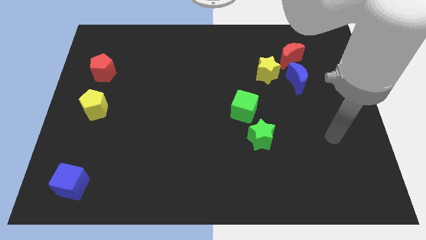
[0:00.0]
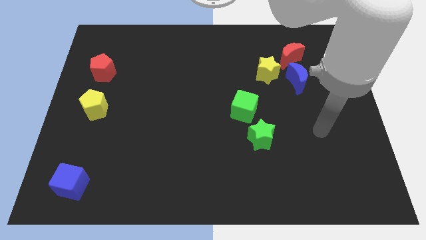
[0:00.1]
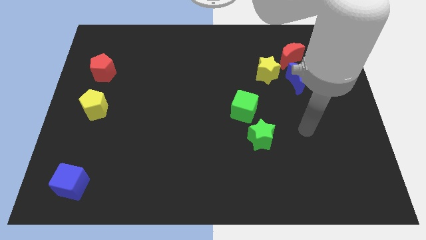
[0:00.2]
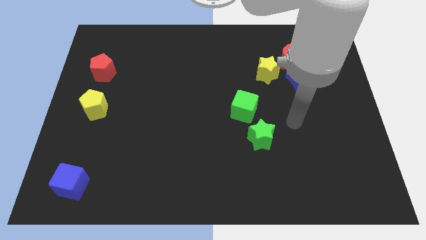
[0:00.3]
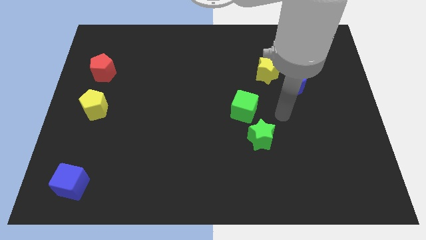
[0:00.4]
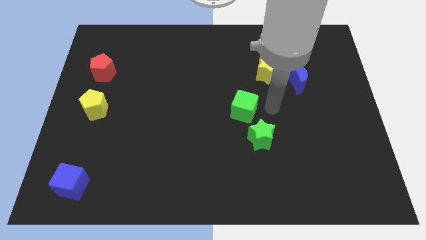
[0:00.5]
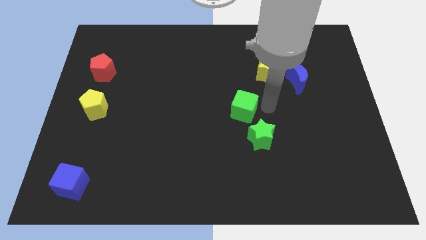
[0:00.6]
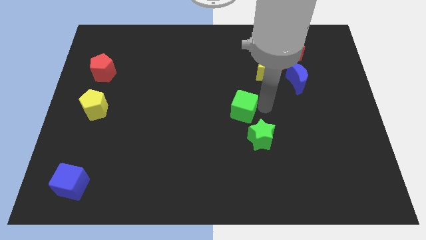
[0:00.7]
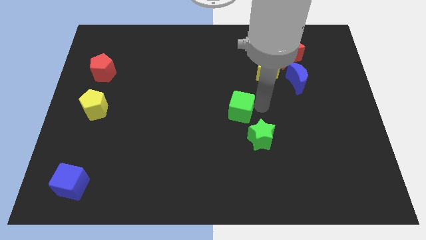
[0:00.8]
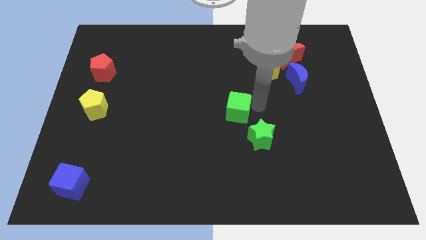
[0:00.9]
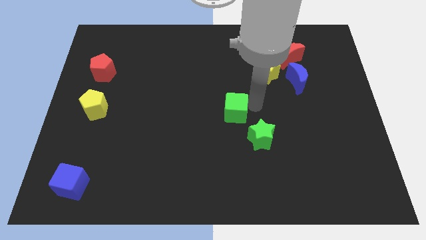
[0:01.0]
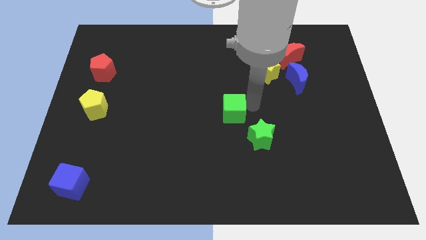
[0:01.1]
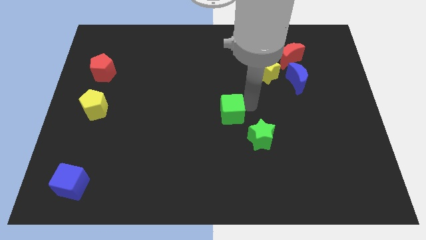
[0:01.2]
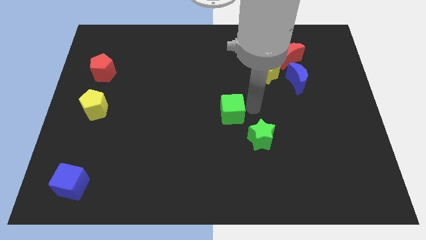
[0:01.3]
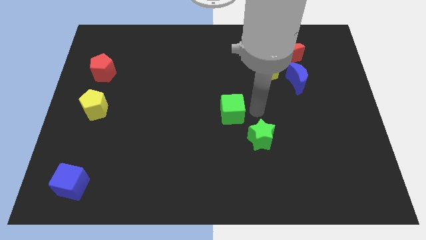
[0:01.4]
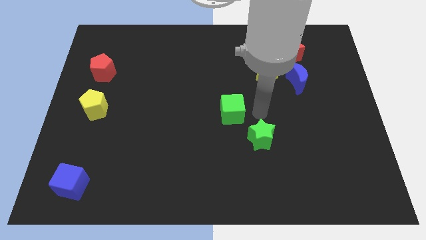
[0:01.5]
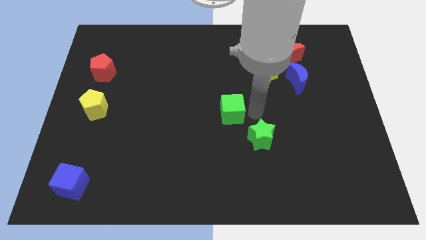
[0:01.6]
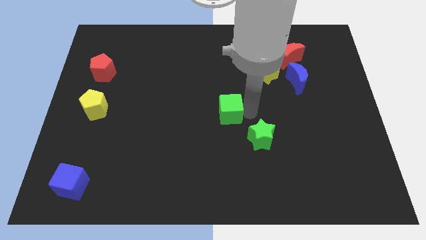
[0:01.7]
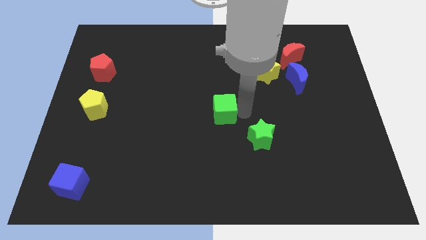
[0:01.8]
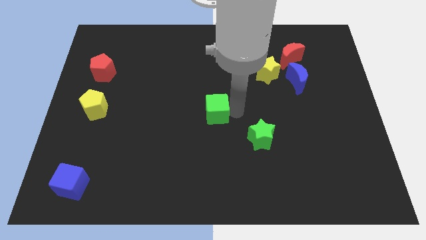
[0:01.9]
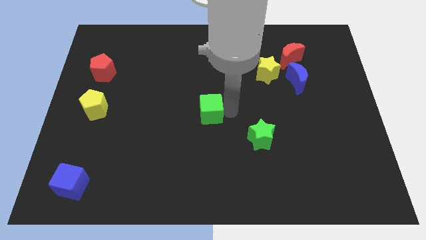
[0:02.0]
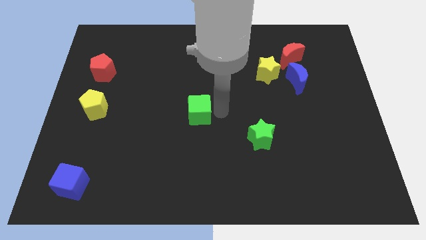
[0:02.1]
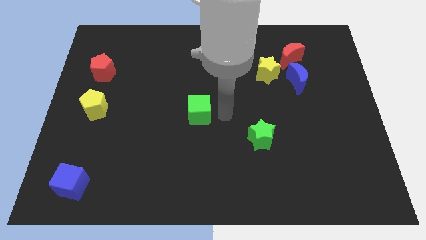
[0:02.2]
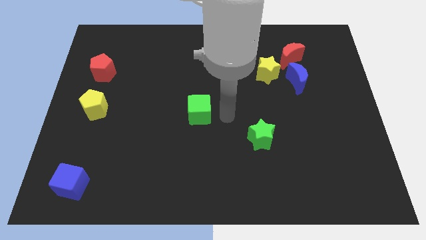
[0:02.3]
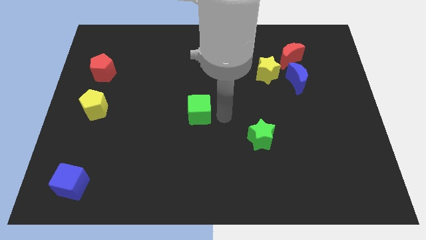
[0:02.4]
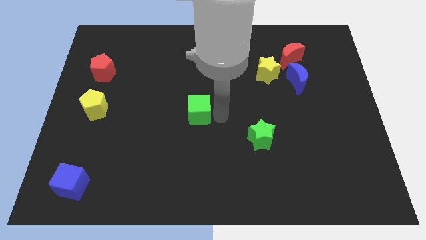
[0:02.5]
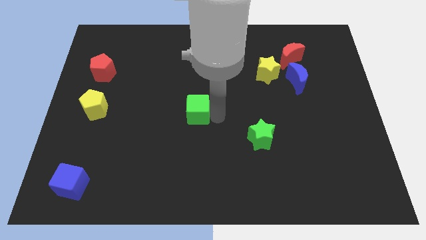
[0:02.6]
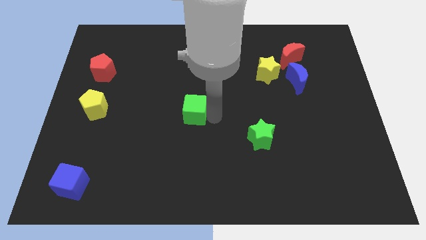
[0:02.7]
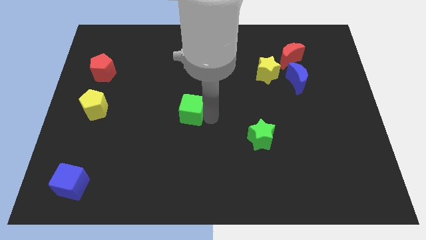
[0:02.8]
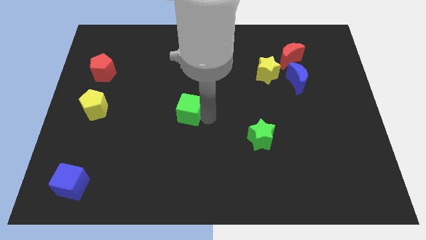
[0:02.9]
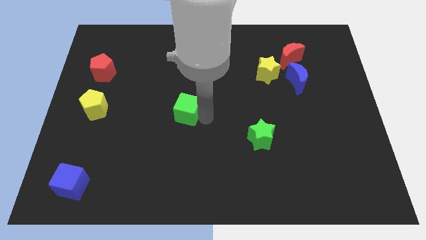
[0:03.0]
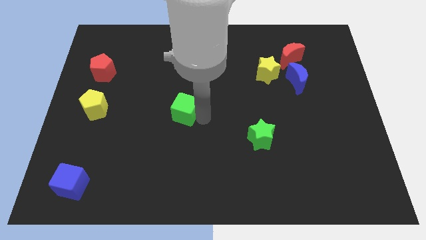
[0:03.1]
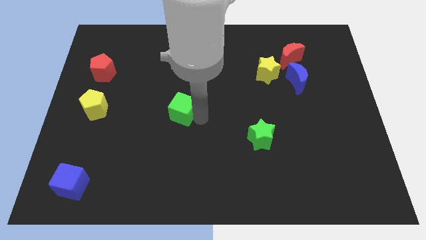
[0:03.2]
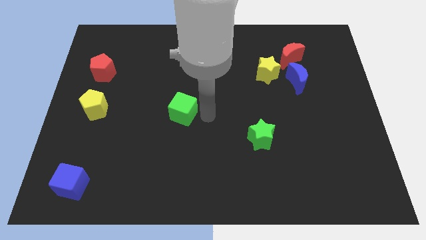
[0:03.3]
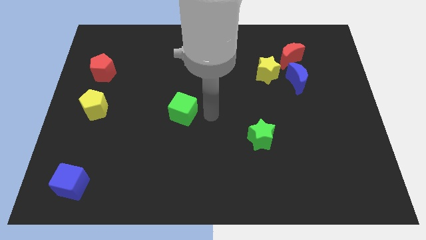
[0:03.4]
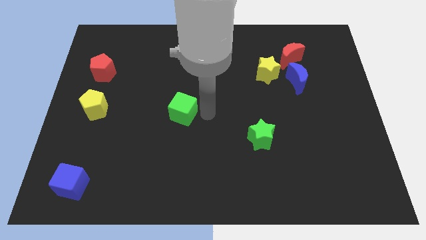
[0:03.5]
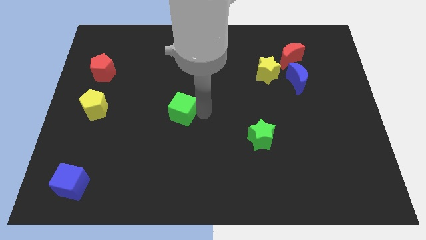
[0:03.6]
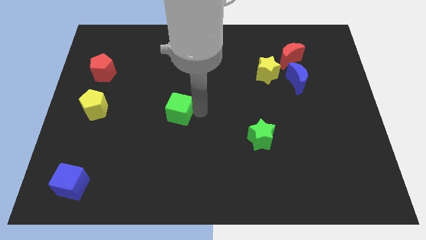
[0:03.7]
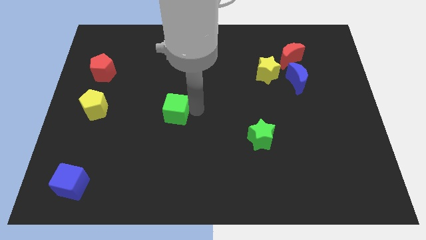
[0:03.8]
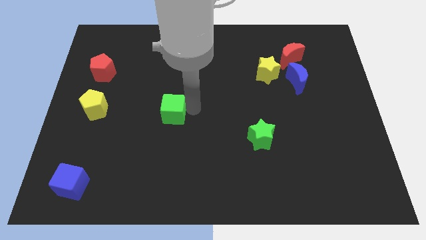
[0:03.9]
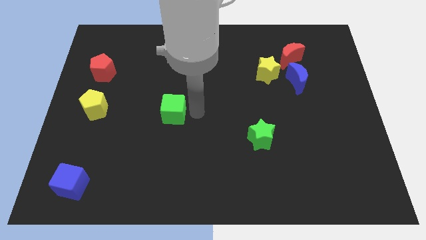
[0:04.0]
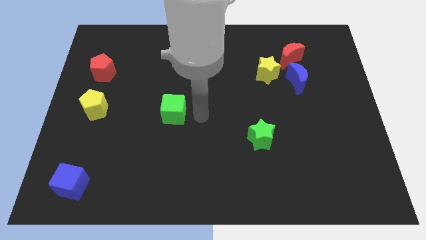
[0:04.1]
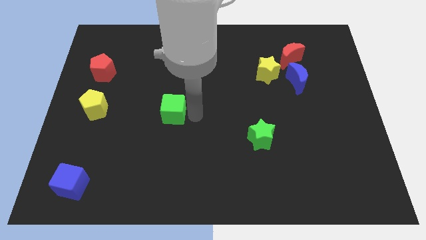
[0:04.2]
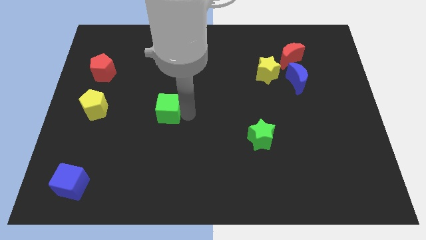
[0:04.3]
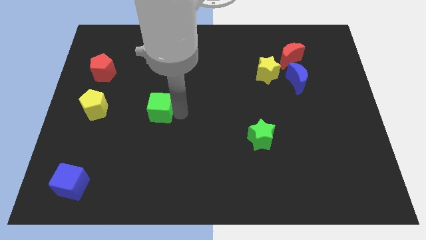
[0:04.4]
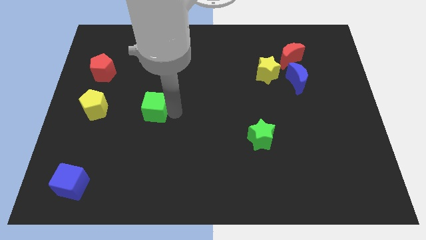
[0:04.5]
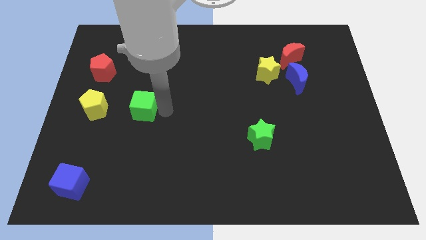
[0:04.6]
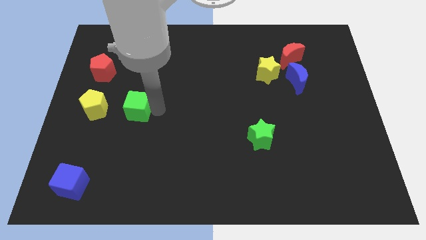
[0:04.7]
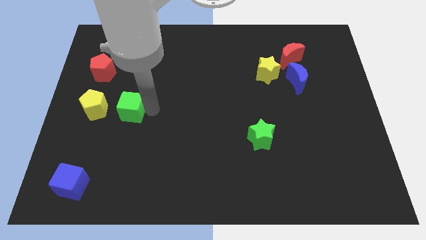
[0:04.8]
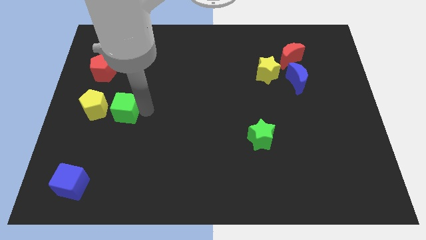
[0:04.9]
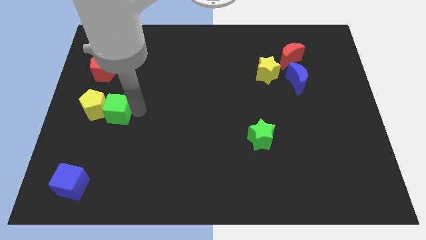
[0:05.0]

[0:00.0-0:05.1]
slide the green cube to the yellow pentagon

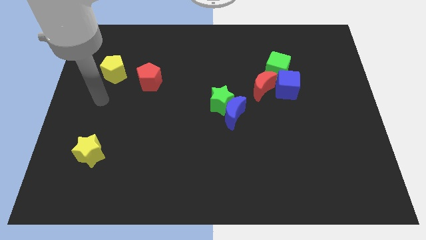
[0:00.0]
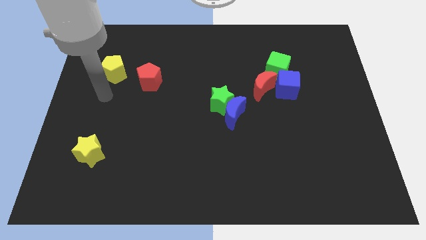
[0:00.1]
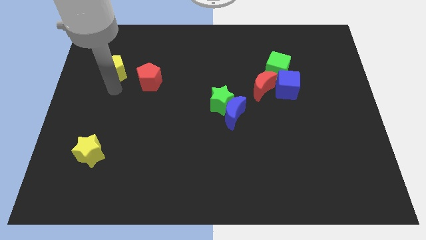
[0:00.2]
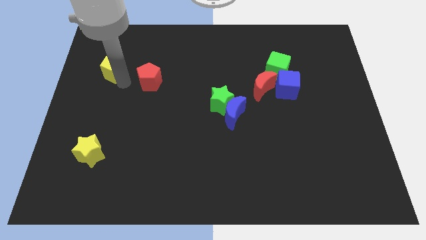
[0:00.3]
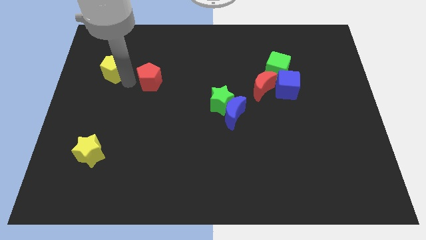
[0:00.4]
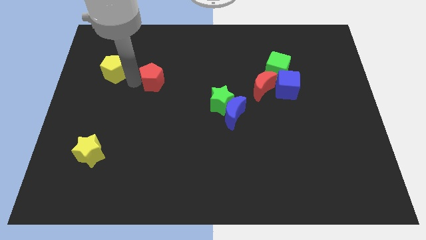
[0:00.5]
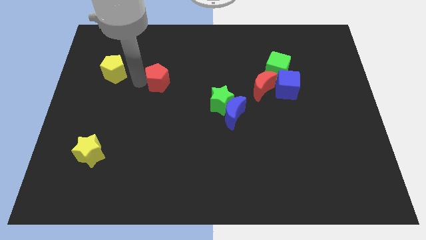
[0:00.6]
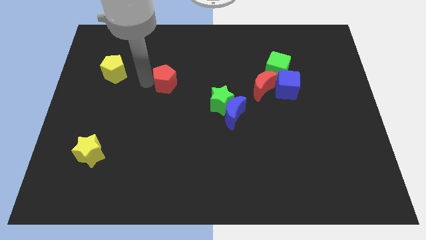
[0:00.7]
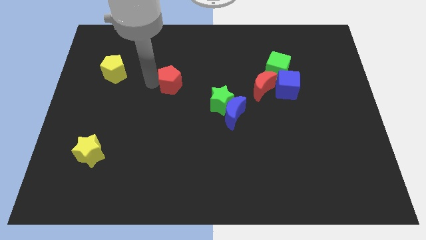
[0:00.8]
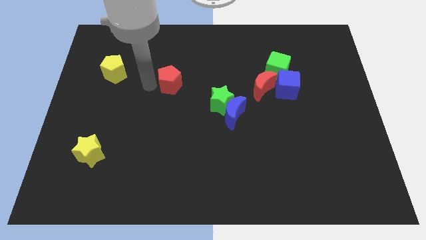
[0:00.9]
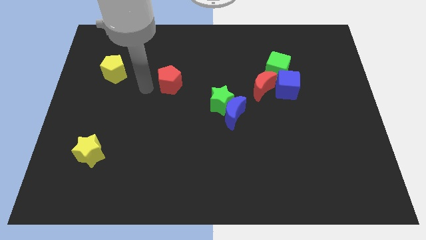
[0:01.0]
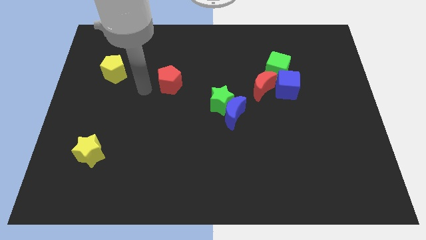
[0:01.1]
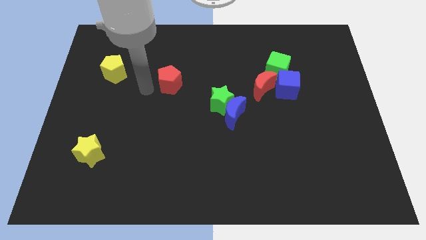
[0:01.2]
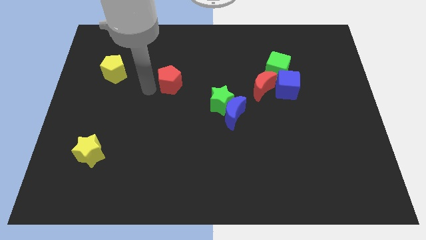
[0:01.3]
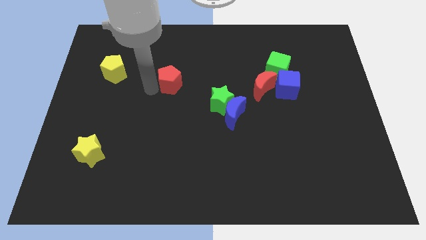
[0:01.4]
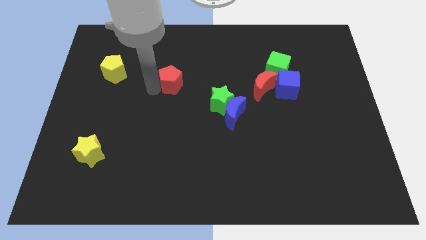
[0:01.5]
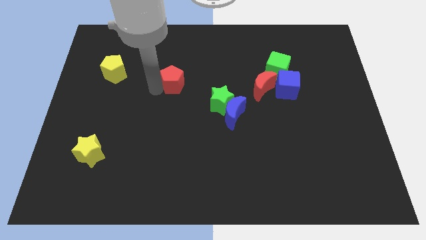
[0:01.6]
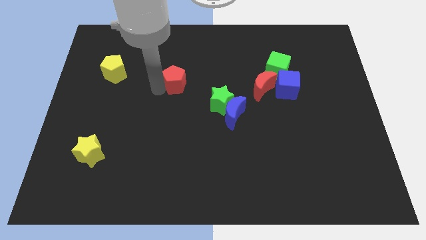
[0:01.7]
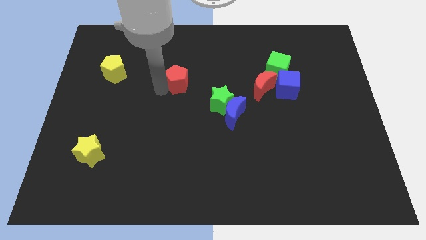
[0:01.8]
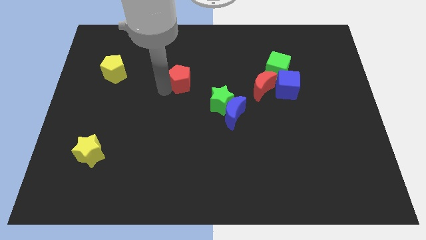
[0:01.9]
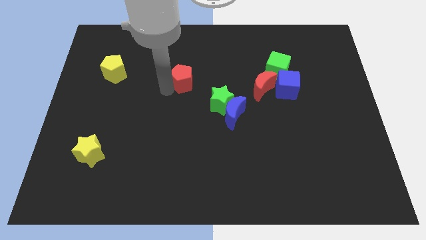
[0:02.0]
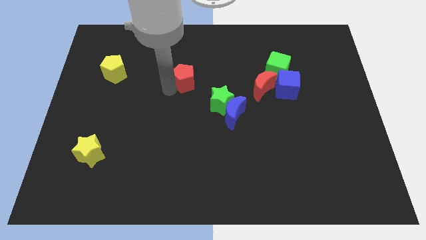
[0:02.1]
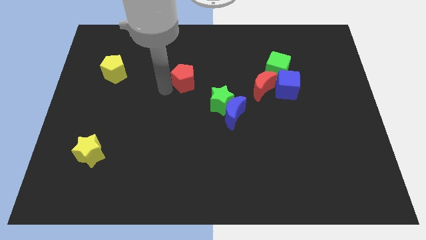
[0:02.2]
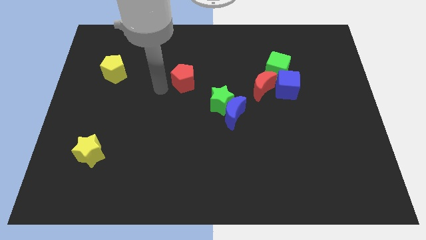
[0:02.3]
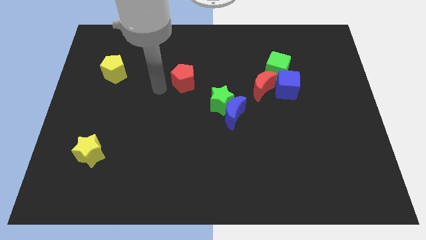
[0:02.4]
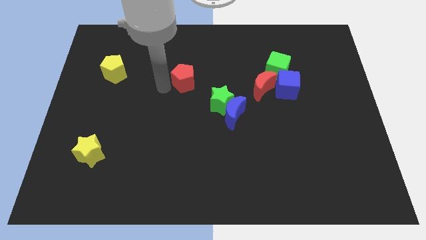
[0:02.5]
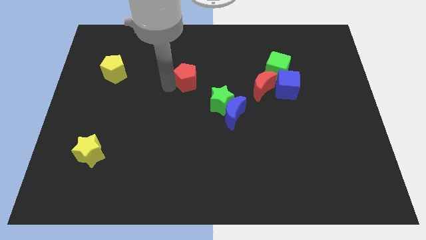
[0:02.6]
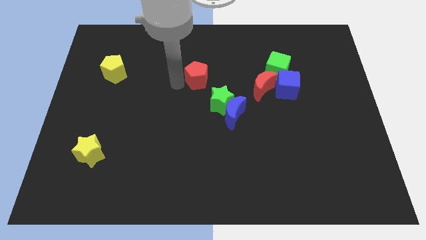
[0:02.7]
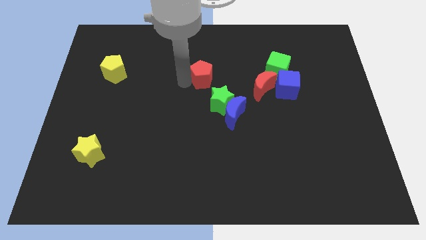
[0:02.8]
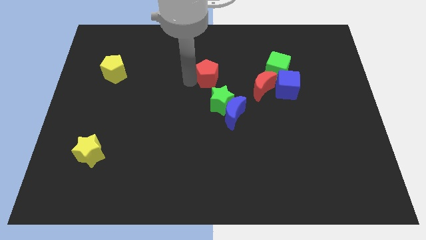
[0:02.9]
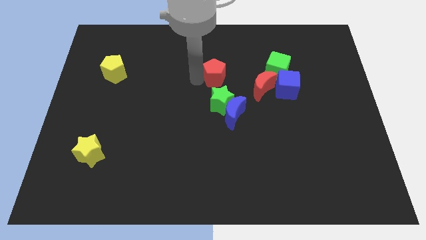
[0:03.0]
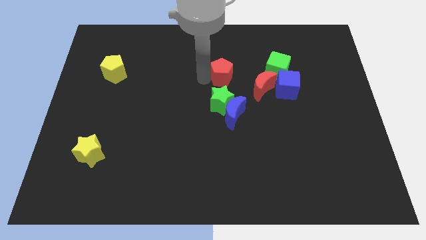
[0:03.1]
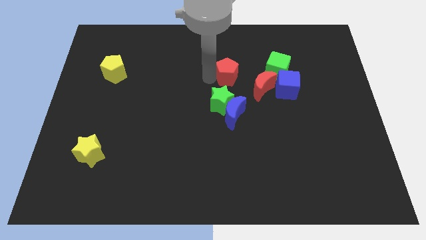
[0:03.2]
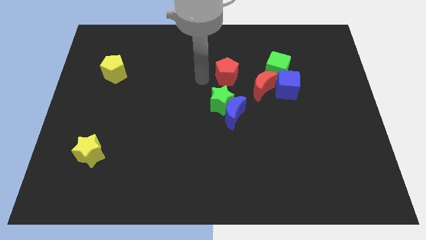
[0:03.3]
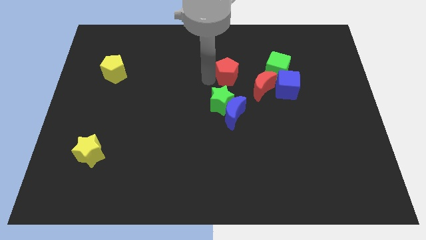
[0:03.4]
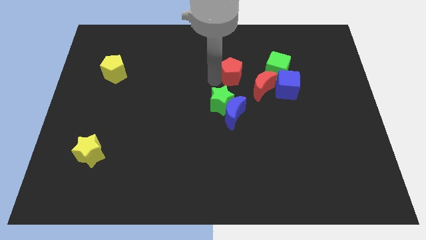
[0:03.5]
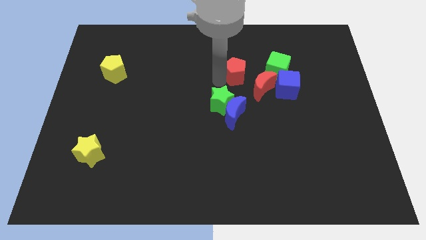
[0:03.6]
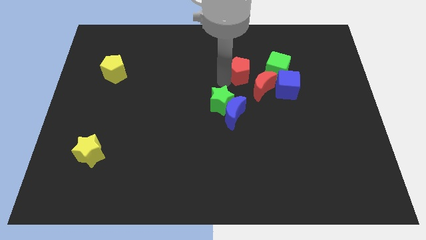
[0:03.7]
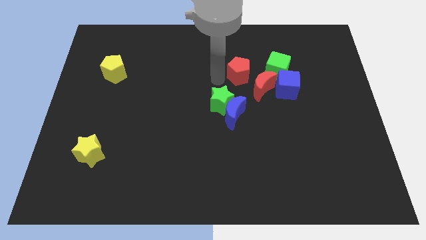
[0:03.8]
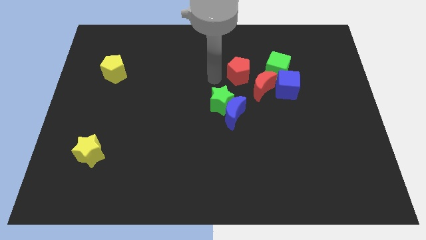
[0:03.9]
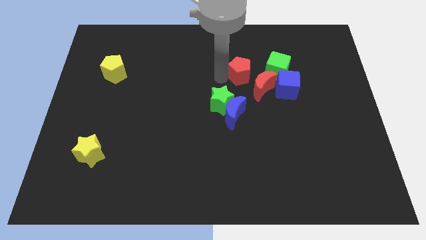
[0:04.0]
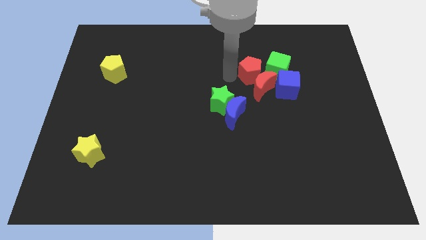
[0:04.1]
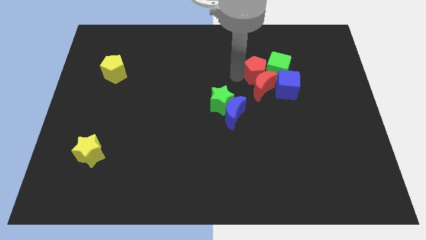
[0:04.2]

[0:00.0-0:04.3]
slide the red pentagon close to the green cube
